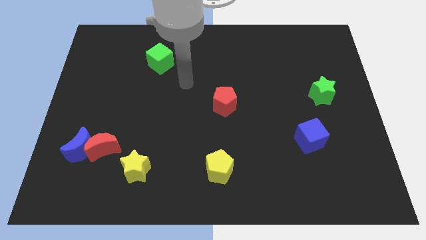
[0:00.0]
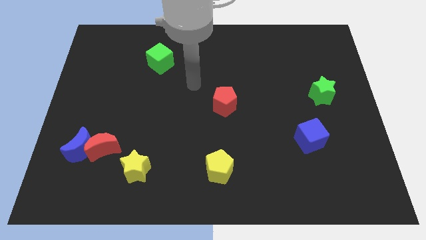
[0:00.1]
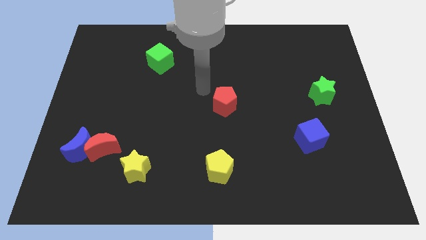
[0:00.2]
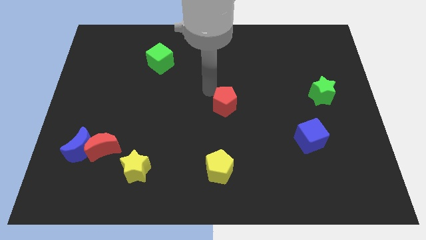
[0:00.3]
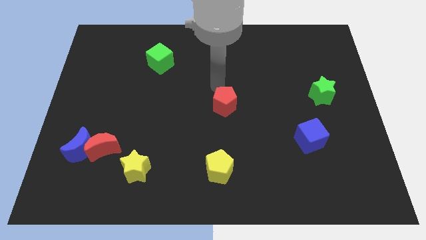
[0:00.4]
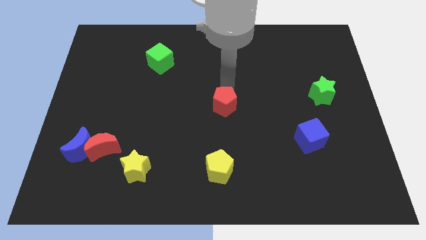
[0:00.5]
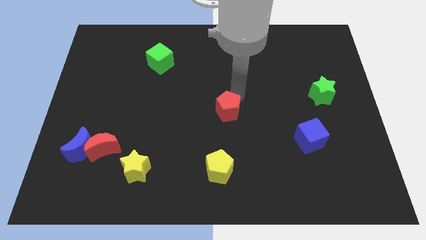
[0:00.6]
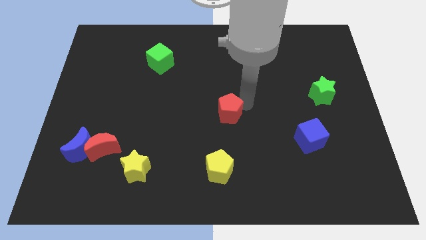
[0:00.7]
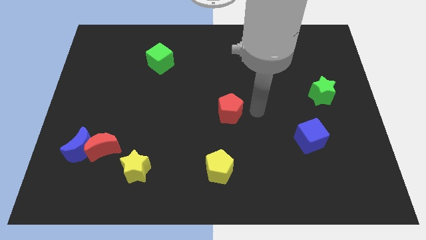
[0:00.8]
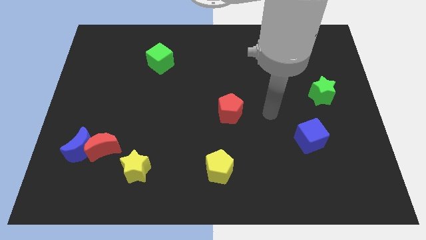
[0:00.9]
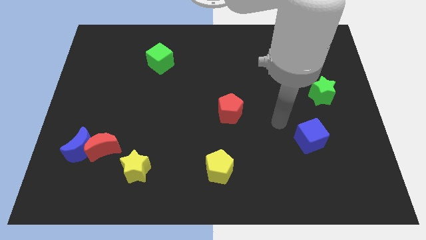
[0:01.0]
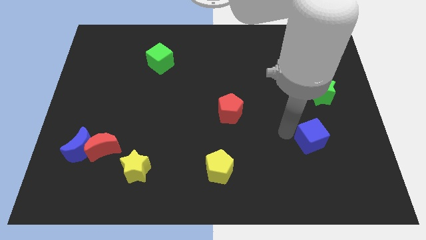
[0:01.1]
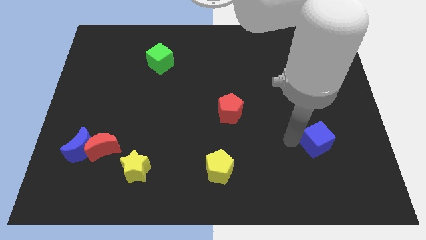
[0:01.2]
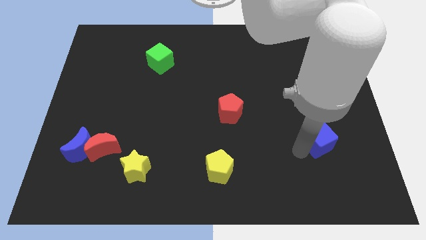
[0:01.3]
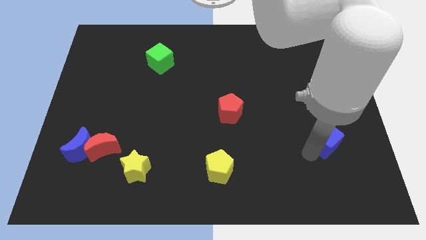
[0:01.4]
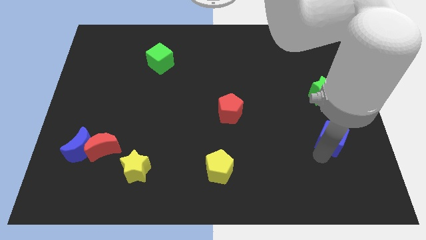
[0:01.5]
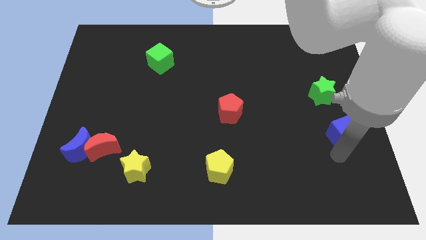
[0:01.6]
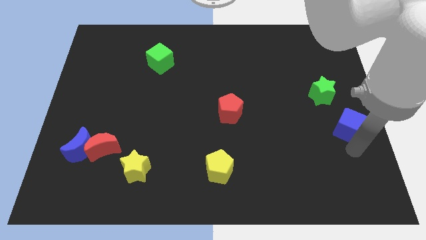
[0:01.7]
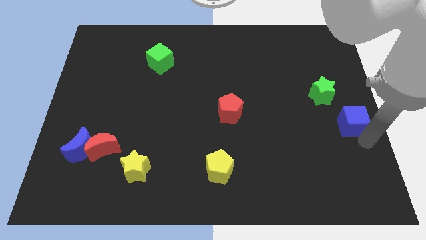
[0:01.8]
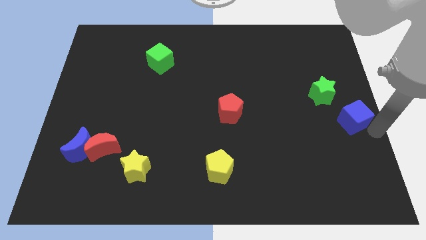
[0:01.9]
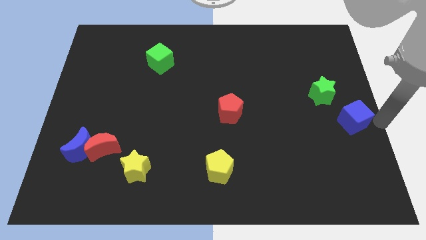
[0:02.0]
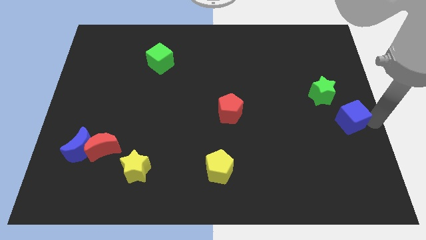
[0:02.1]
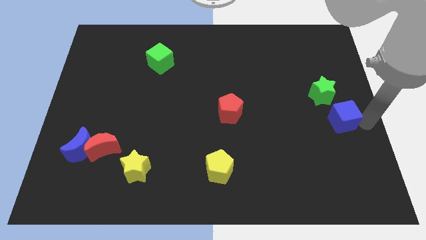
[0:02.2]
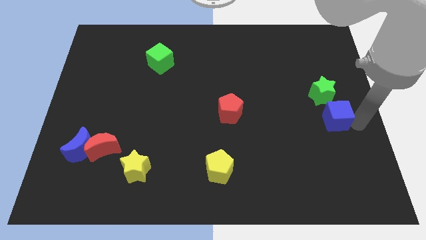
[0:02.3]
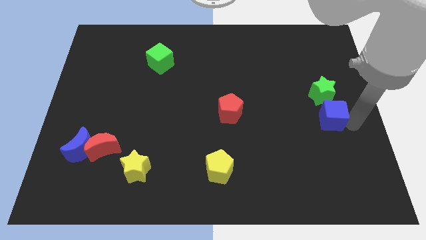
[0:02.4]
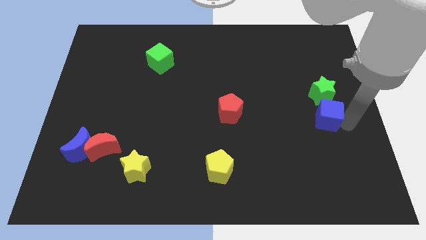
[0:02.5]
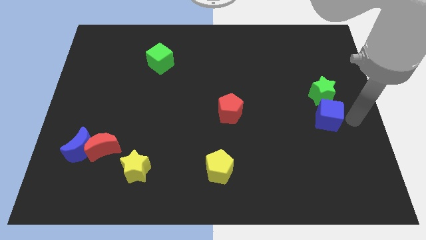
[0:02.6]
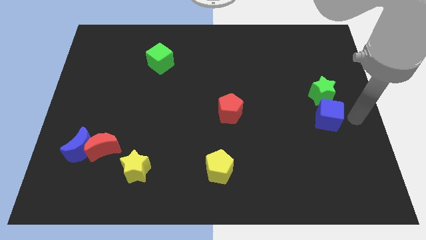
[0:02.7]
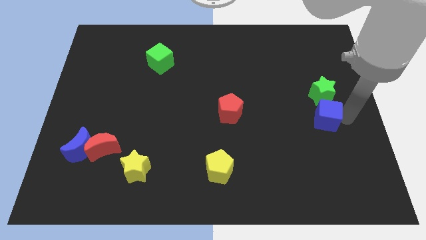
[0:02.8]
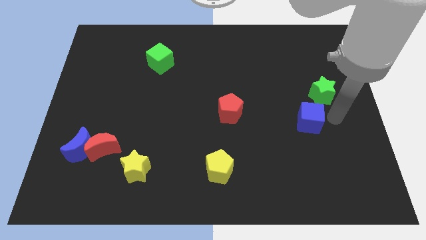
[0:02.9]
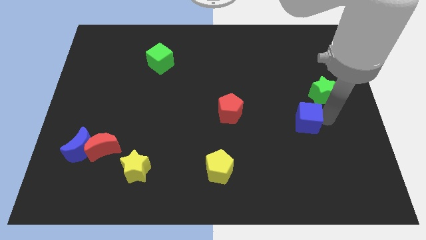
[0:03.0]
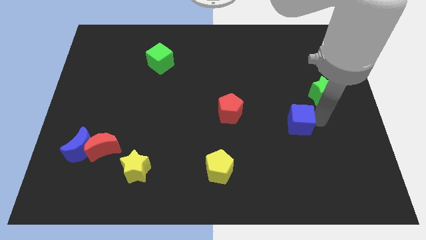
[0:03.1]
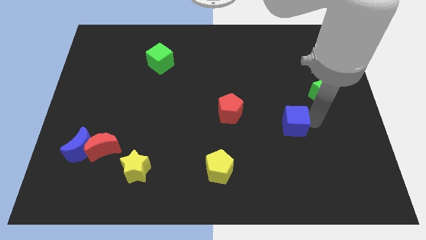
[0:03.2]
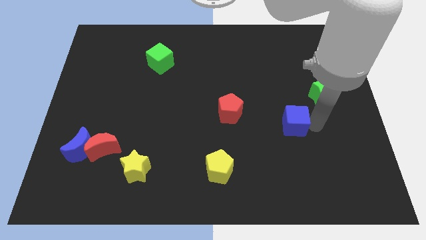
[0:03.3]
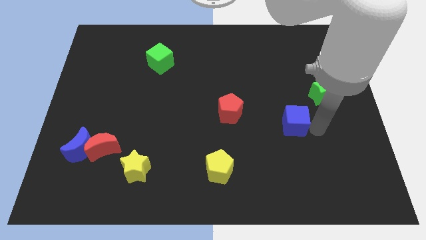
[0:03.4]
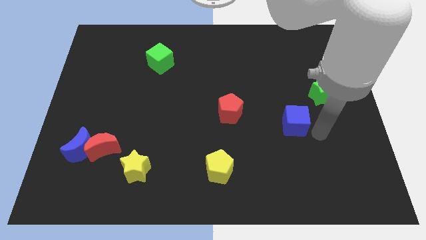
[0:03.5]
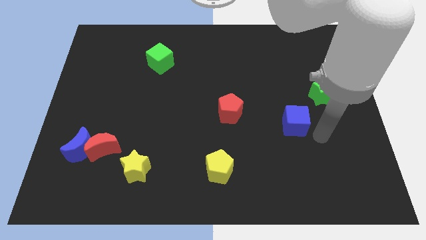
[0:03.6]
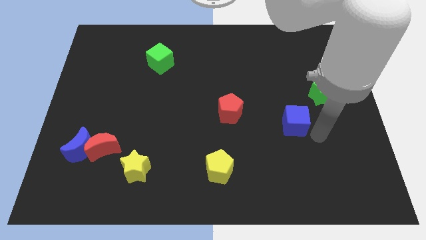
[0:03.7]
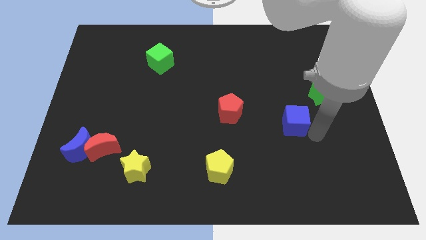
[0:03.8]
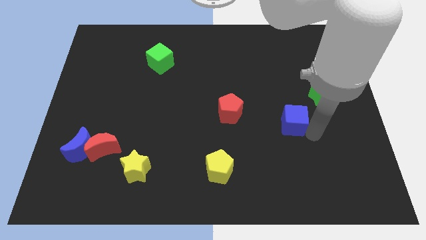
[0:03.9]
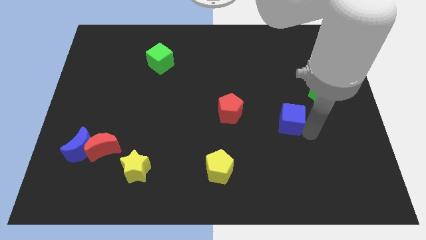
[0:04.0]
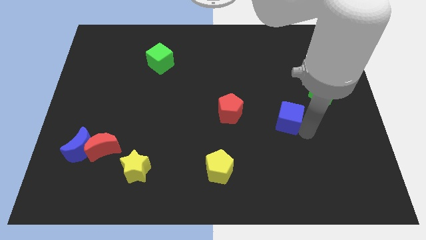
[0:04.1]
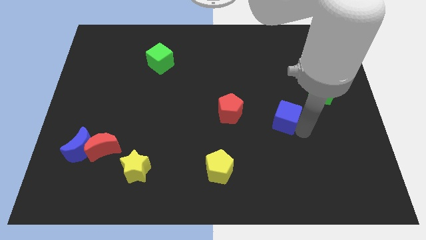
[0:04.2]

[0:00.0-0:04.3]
slightly move the blue cube up and then to the left

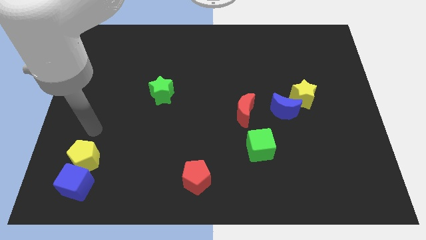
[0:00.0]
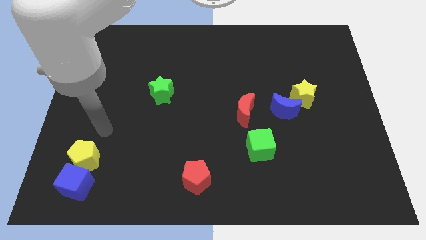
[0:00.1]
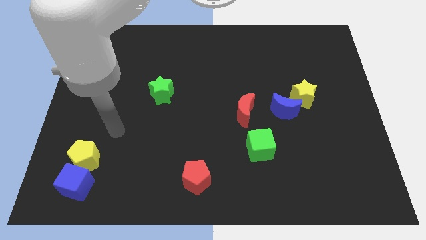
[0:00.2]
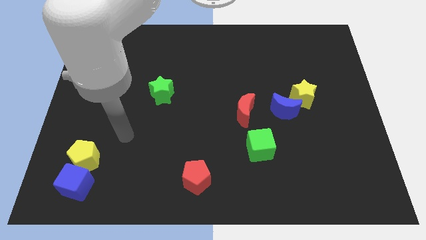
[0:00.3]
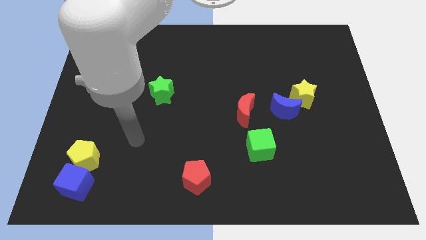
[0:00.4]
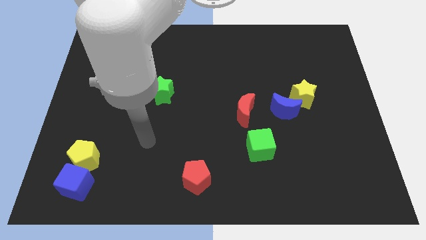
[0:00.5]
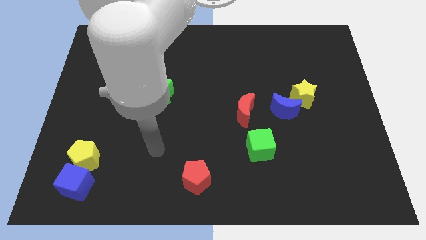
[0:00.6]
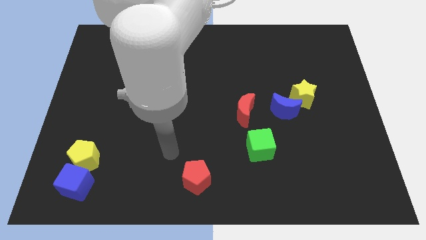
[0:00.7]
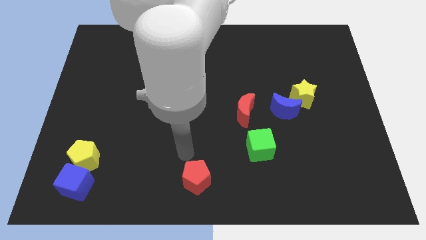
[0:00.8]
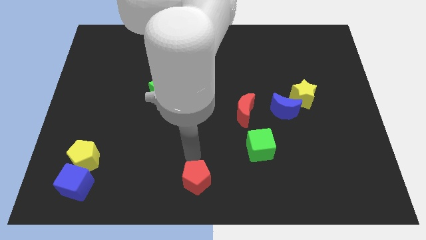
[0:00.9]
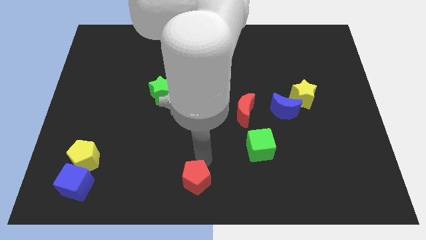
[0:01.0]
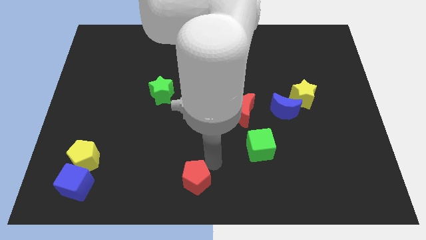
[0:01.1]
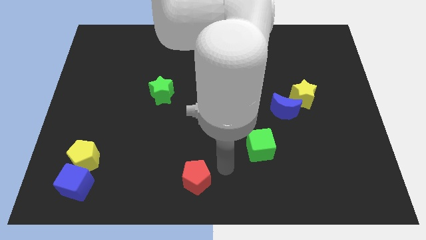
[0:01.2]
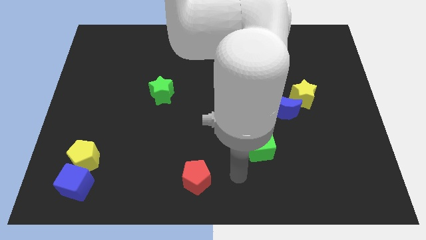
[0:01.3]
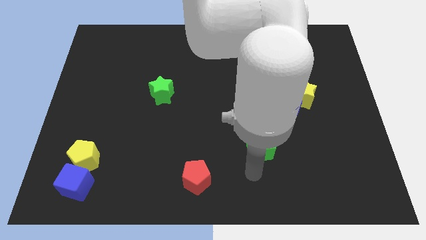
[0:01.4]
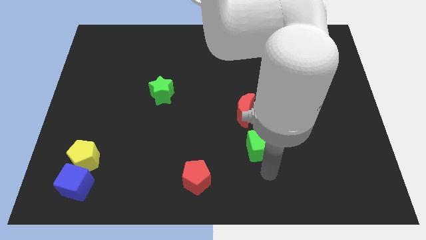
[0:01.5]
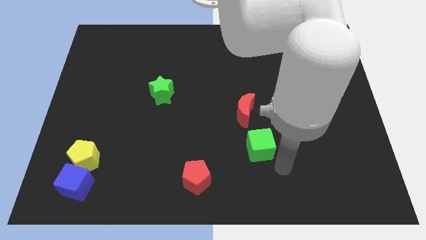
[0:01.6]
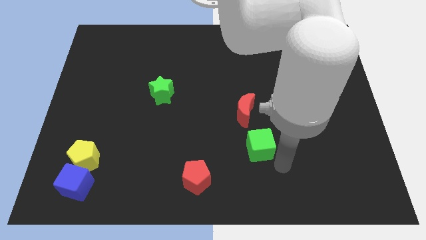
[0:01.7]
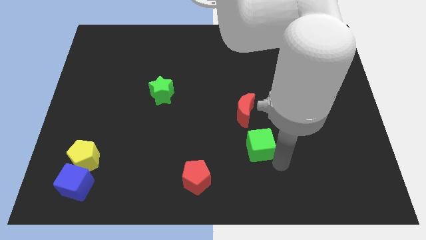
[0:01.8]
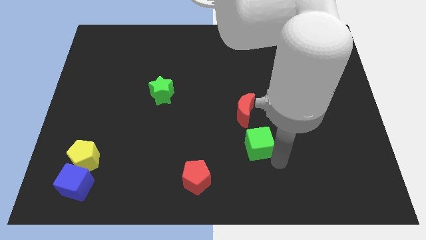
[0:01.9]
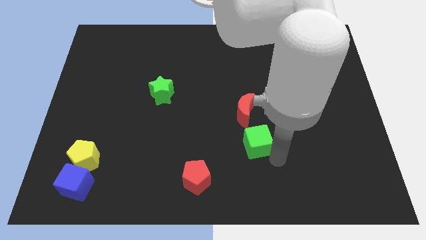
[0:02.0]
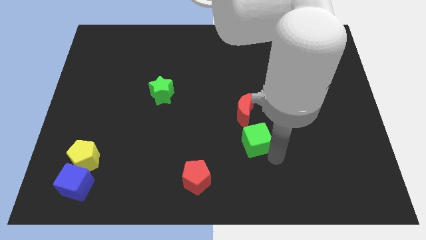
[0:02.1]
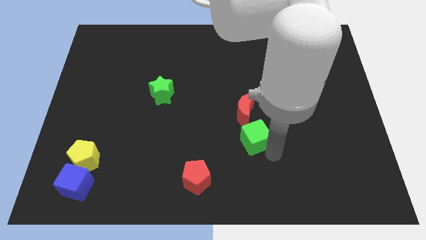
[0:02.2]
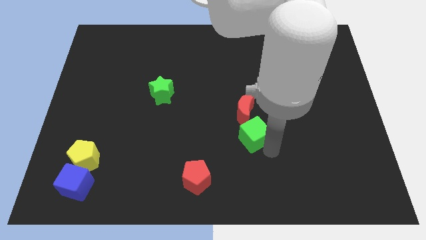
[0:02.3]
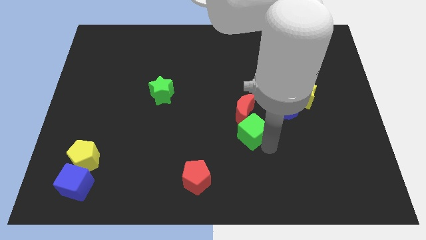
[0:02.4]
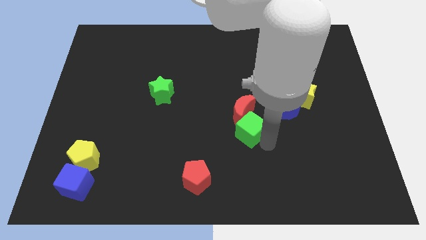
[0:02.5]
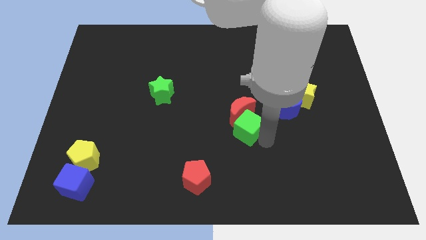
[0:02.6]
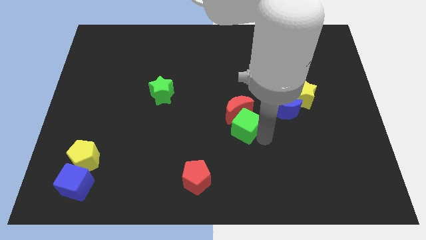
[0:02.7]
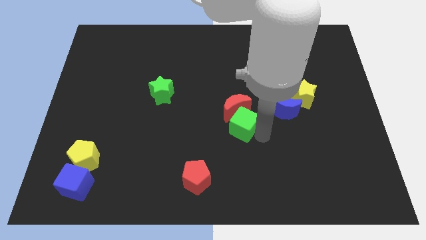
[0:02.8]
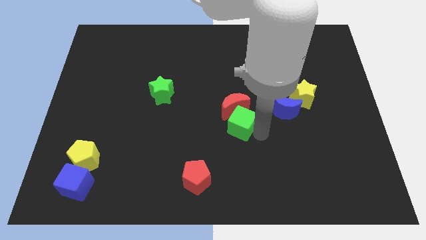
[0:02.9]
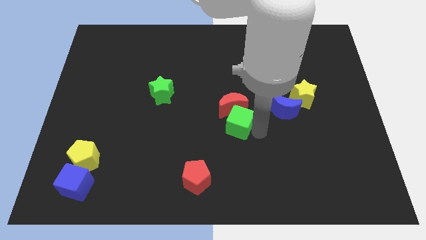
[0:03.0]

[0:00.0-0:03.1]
slide the green cube a little upwards and then left

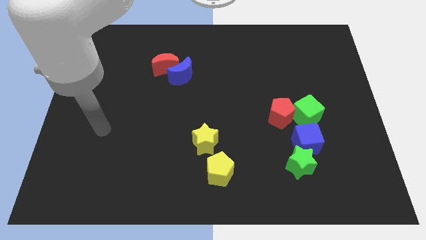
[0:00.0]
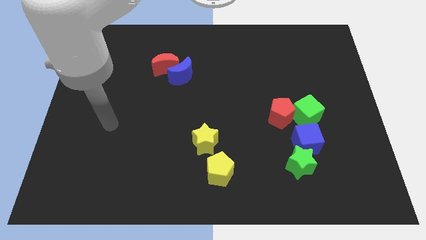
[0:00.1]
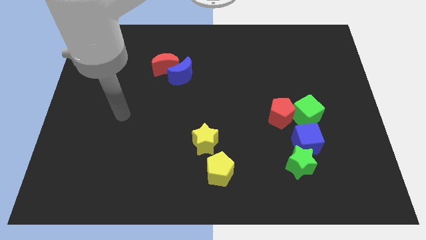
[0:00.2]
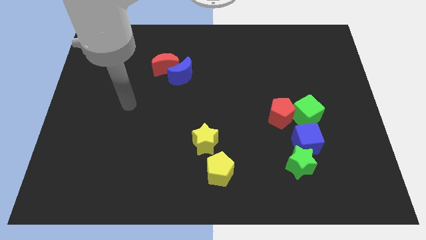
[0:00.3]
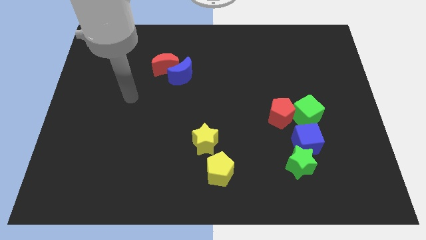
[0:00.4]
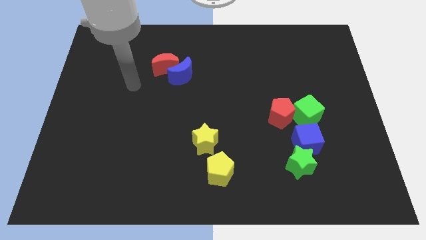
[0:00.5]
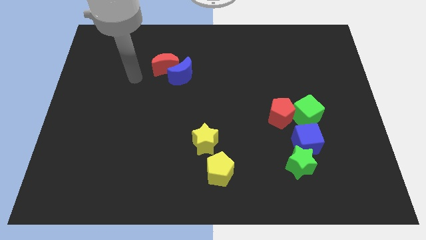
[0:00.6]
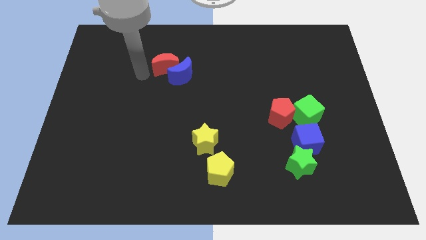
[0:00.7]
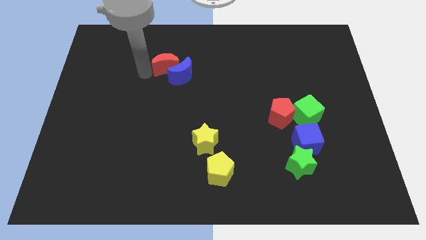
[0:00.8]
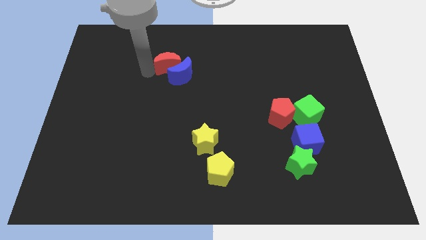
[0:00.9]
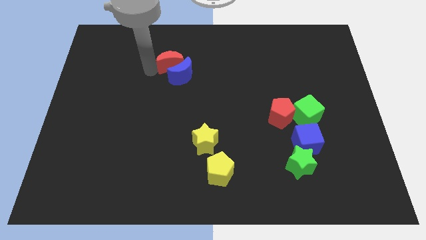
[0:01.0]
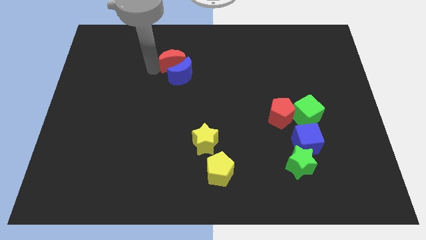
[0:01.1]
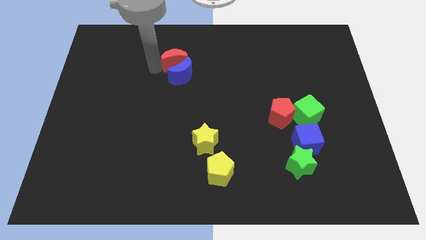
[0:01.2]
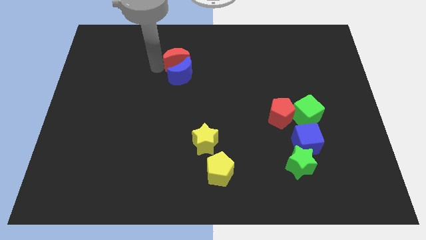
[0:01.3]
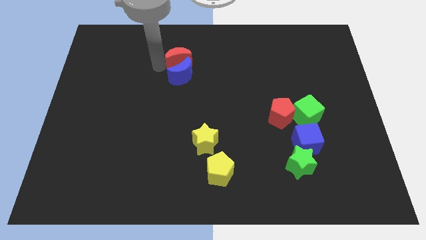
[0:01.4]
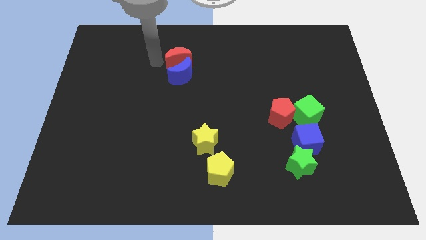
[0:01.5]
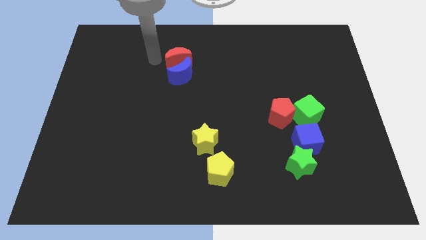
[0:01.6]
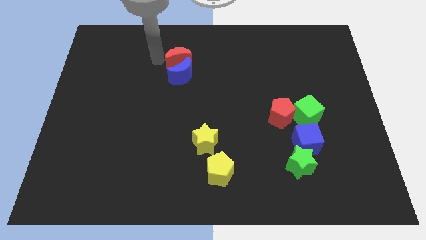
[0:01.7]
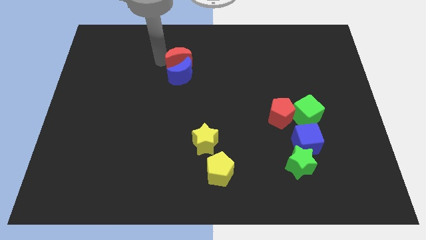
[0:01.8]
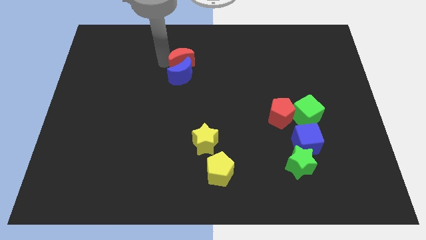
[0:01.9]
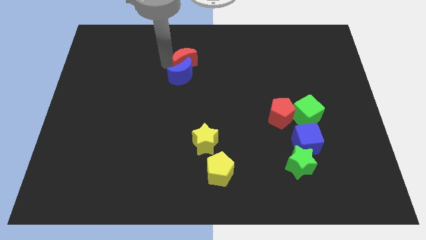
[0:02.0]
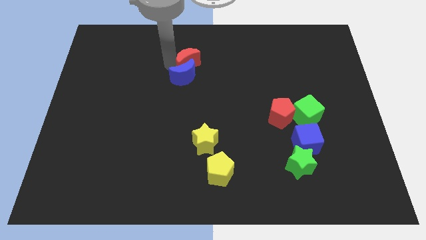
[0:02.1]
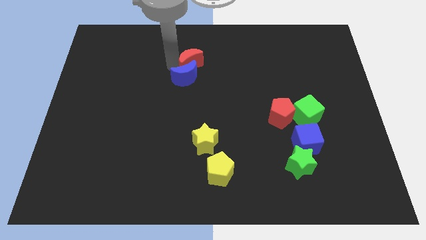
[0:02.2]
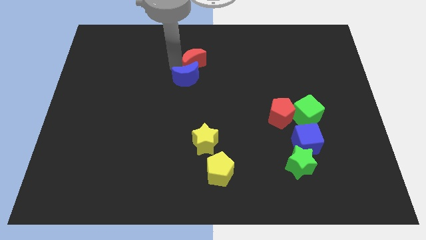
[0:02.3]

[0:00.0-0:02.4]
slide the red moon to the right a bit
